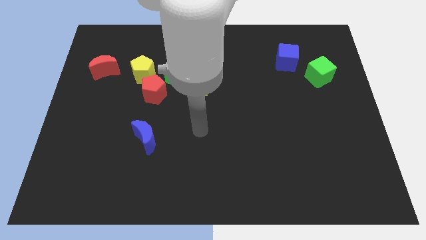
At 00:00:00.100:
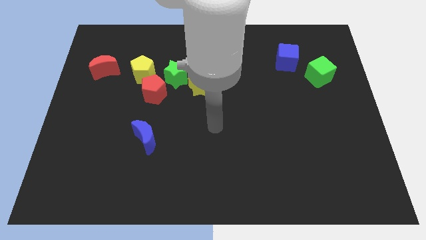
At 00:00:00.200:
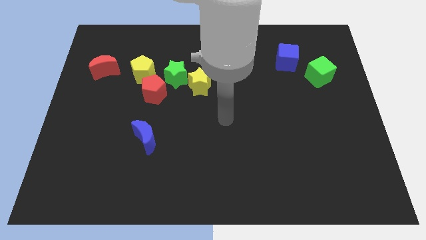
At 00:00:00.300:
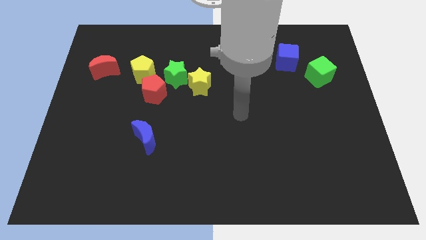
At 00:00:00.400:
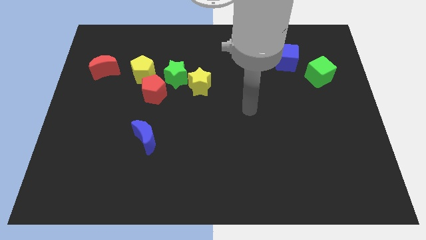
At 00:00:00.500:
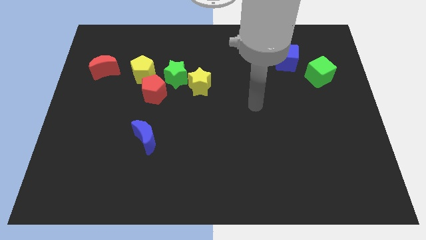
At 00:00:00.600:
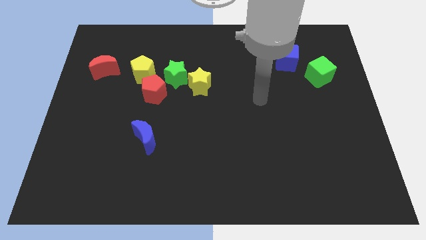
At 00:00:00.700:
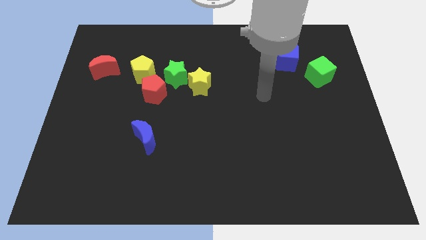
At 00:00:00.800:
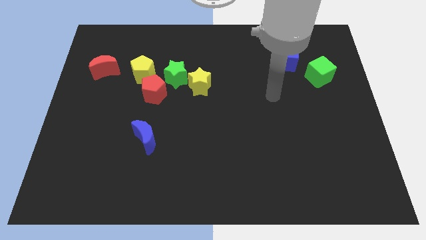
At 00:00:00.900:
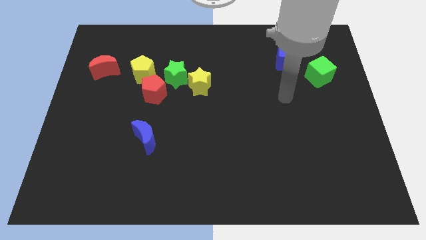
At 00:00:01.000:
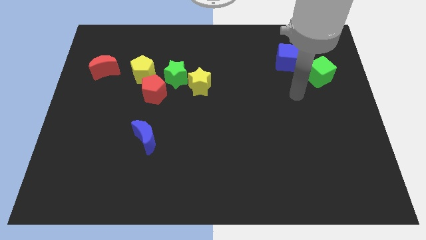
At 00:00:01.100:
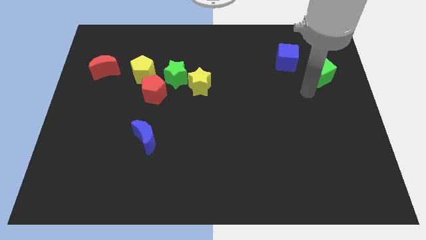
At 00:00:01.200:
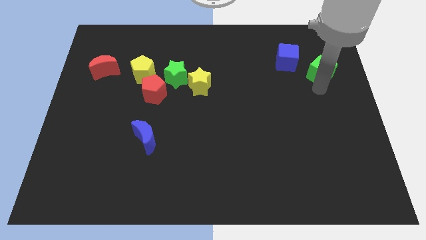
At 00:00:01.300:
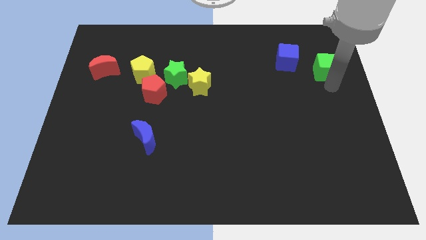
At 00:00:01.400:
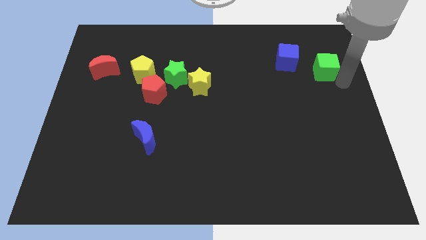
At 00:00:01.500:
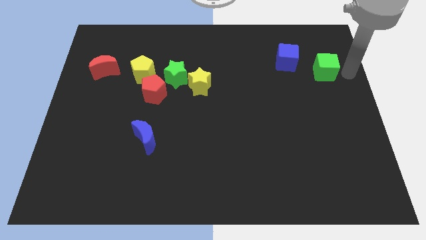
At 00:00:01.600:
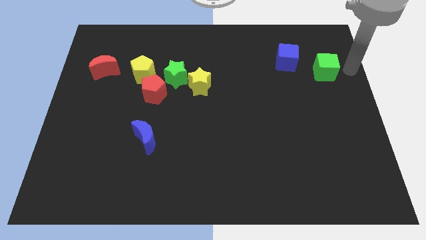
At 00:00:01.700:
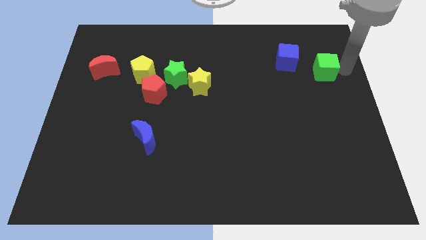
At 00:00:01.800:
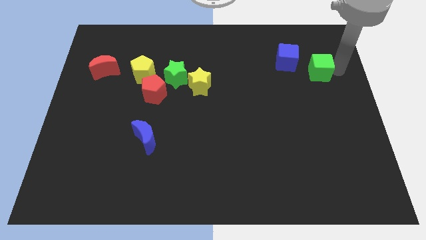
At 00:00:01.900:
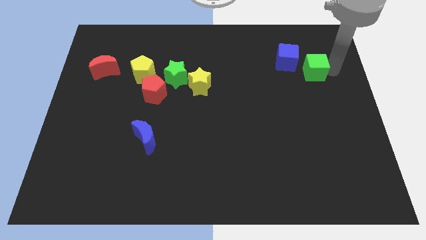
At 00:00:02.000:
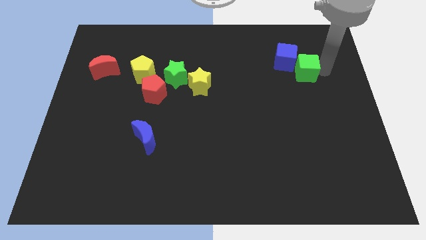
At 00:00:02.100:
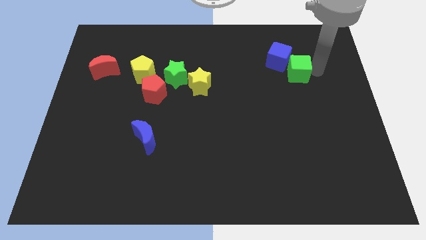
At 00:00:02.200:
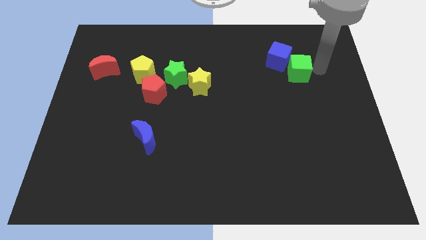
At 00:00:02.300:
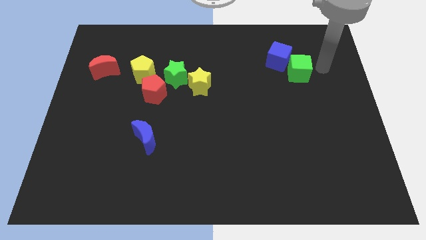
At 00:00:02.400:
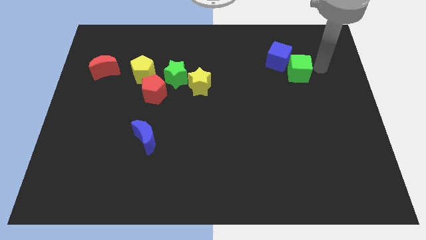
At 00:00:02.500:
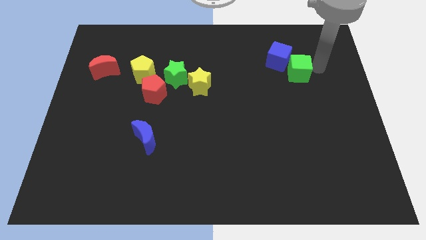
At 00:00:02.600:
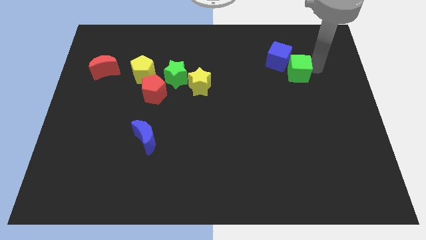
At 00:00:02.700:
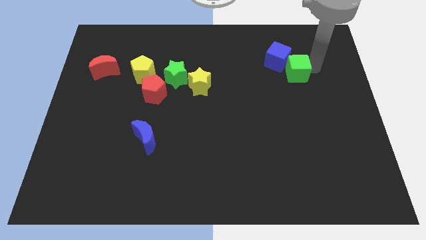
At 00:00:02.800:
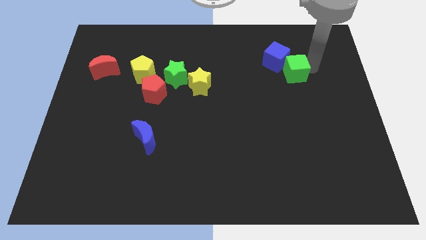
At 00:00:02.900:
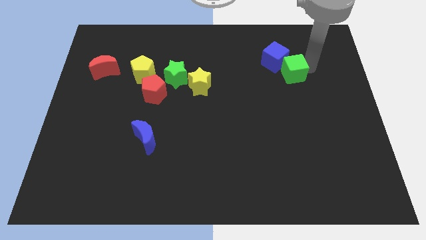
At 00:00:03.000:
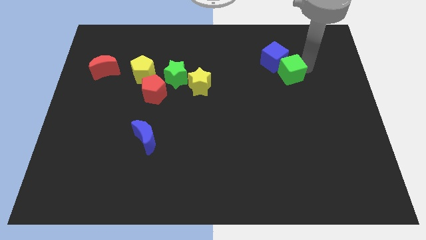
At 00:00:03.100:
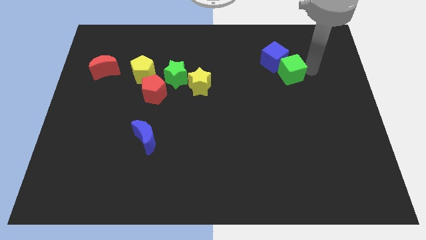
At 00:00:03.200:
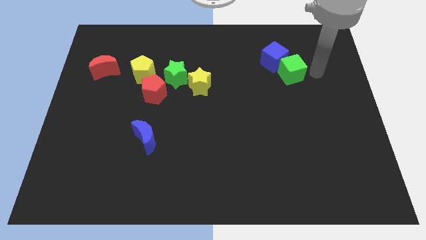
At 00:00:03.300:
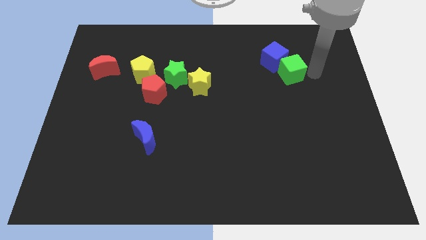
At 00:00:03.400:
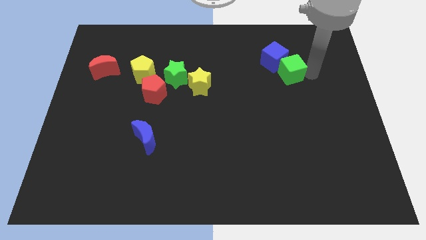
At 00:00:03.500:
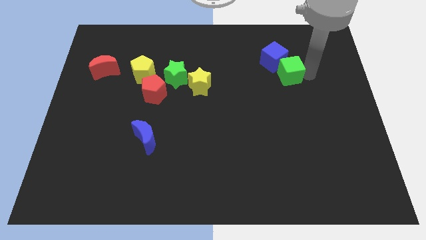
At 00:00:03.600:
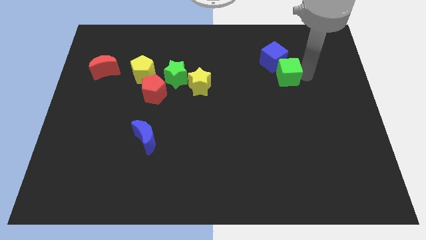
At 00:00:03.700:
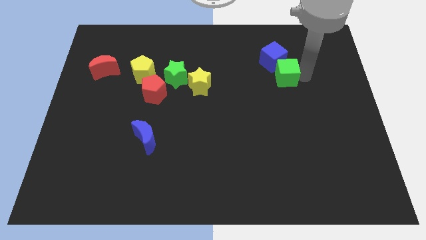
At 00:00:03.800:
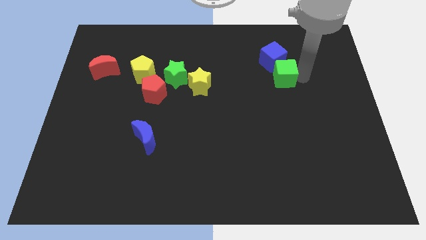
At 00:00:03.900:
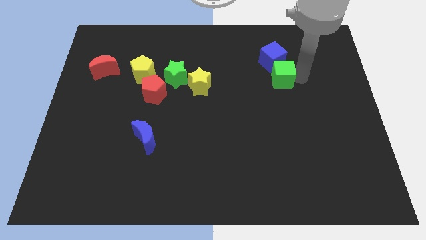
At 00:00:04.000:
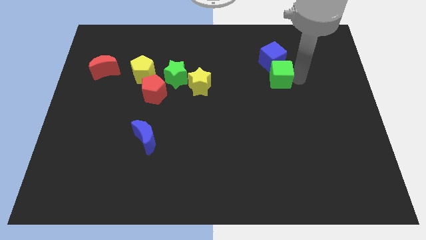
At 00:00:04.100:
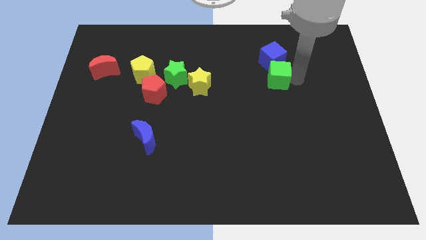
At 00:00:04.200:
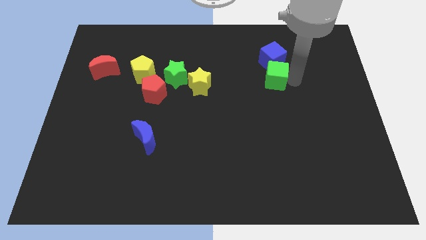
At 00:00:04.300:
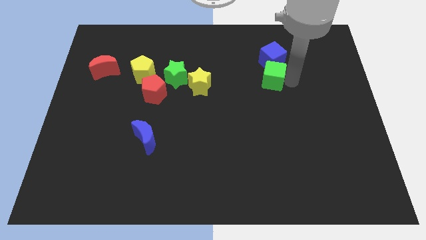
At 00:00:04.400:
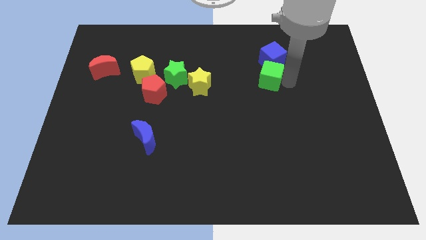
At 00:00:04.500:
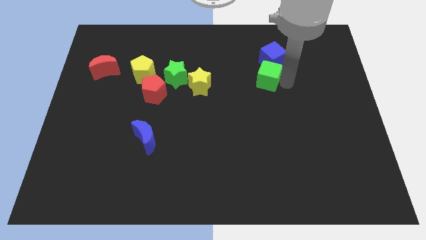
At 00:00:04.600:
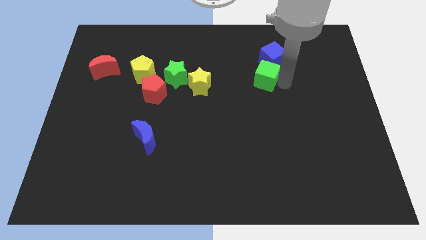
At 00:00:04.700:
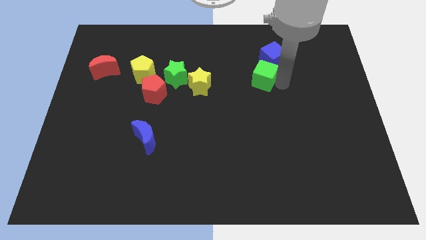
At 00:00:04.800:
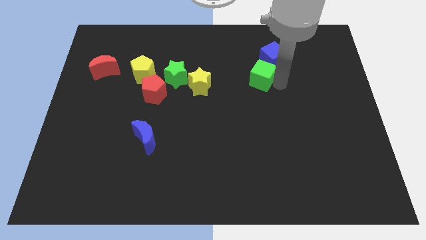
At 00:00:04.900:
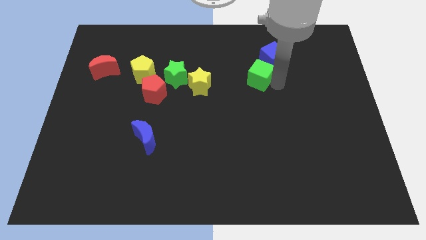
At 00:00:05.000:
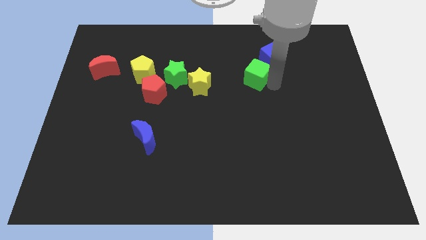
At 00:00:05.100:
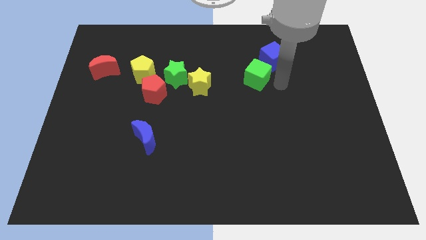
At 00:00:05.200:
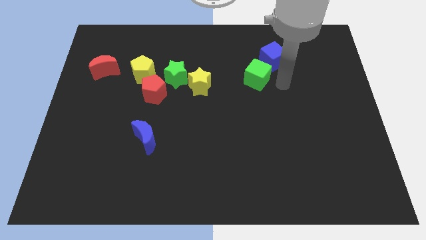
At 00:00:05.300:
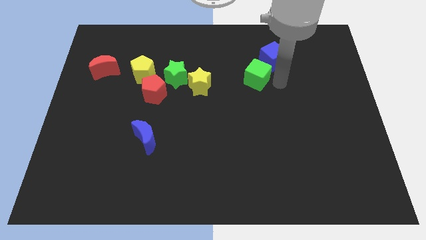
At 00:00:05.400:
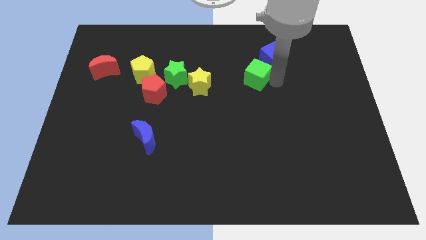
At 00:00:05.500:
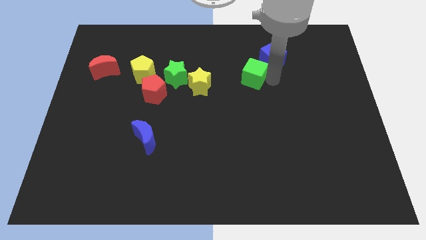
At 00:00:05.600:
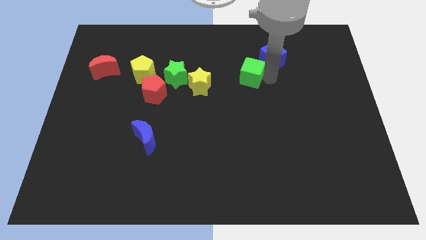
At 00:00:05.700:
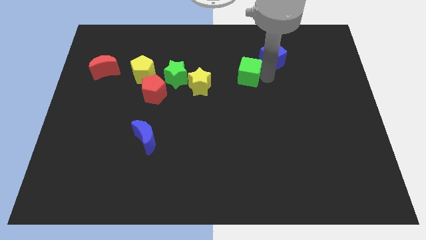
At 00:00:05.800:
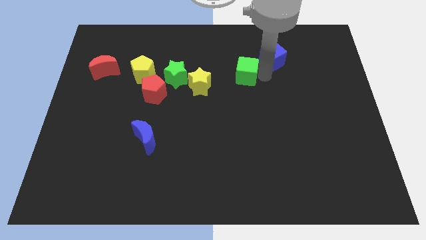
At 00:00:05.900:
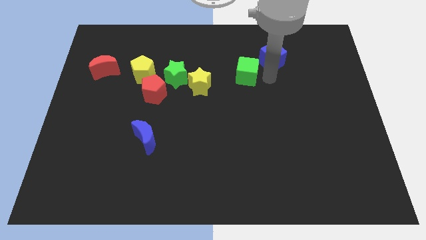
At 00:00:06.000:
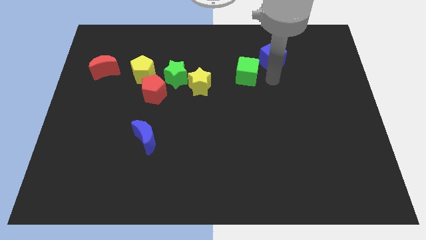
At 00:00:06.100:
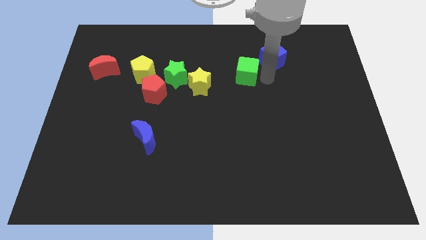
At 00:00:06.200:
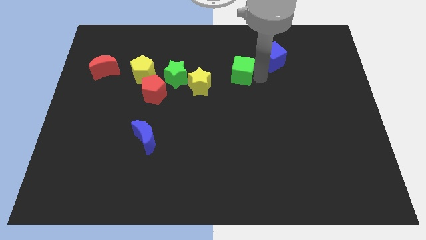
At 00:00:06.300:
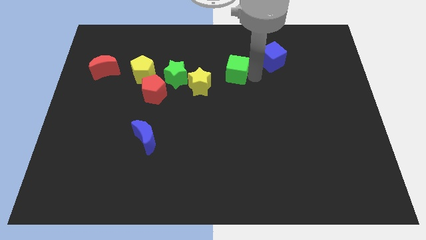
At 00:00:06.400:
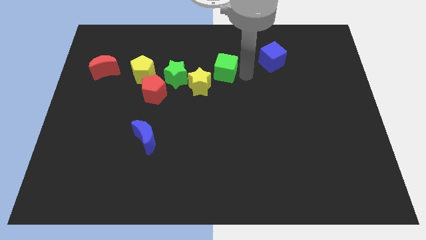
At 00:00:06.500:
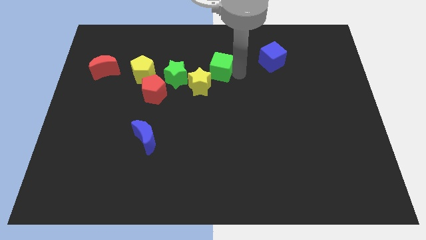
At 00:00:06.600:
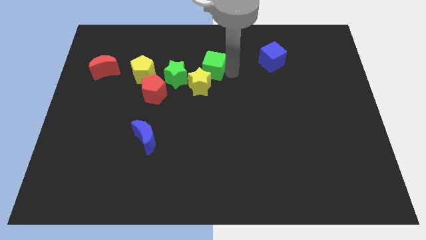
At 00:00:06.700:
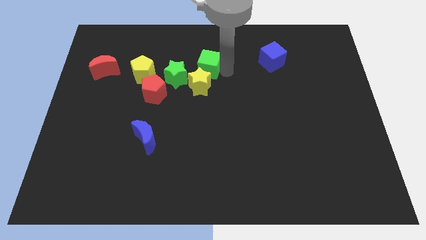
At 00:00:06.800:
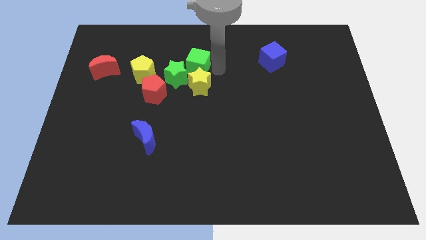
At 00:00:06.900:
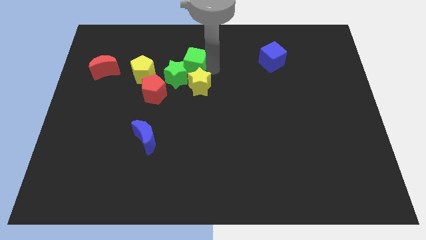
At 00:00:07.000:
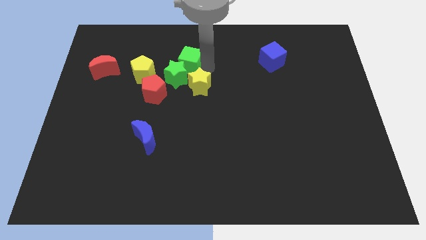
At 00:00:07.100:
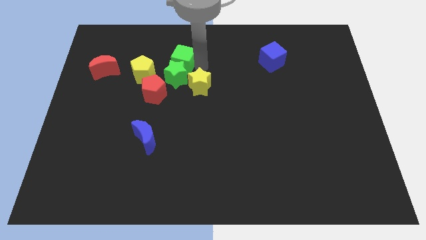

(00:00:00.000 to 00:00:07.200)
put the green cube diagonally up and to the right of the yellow pentagon
